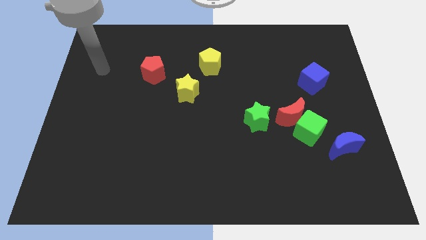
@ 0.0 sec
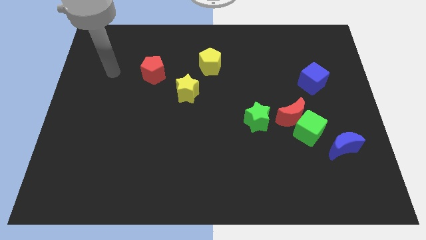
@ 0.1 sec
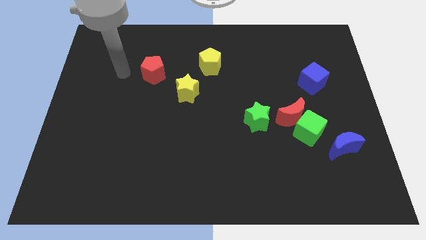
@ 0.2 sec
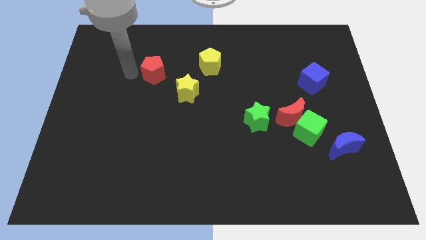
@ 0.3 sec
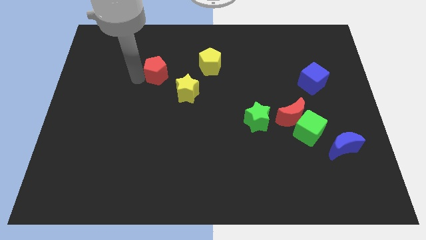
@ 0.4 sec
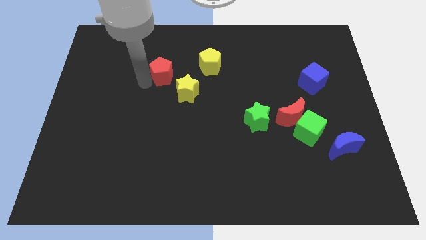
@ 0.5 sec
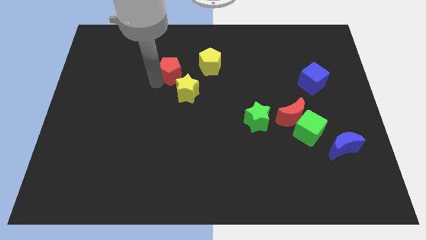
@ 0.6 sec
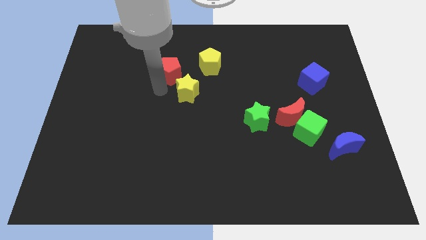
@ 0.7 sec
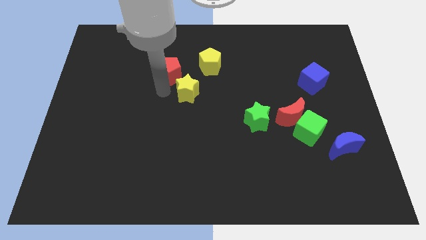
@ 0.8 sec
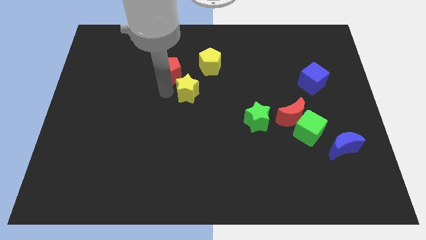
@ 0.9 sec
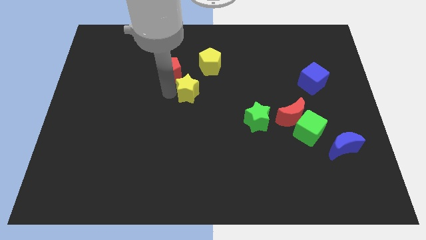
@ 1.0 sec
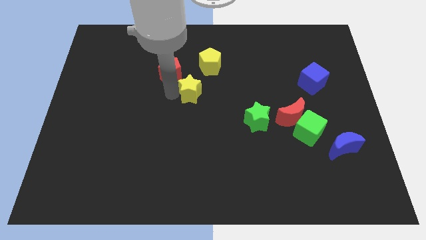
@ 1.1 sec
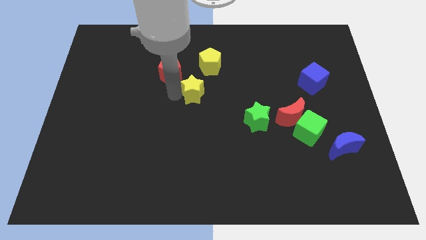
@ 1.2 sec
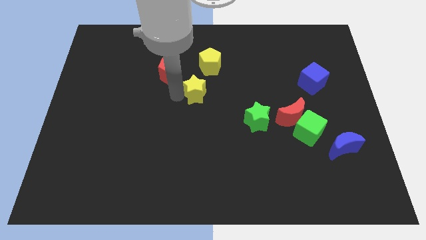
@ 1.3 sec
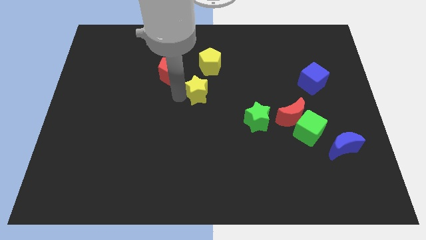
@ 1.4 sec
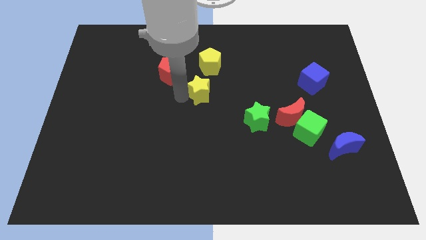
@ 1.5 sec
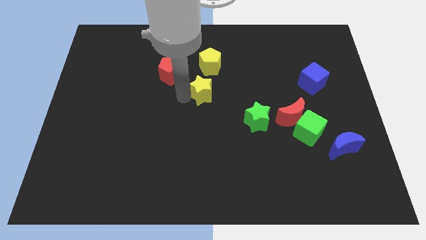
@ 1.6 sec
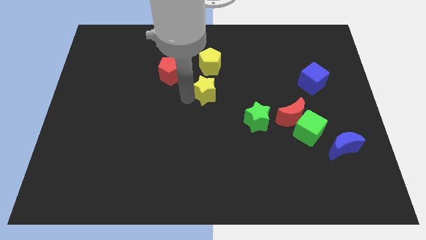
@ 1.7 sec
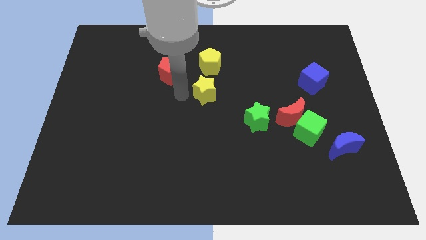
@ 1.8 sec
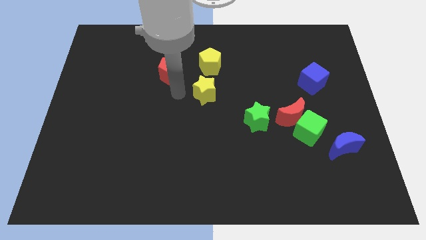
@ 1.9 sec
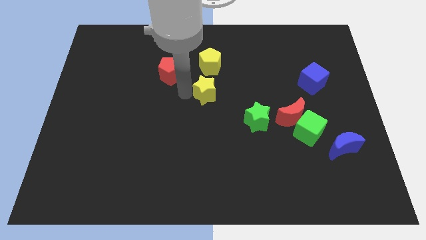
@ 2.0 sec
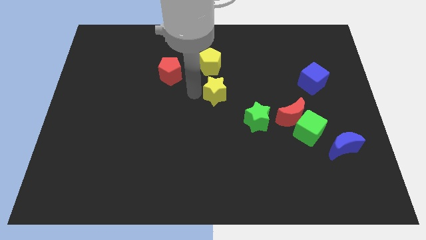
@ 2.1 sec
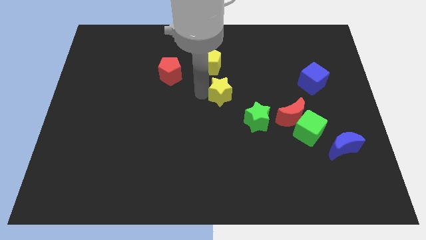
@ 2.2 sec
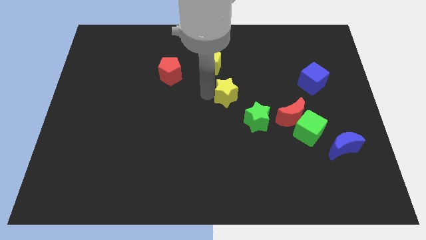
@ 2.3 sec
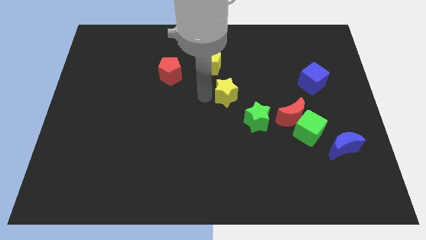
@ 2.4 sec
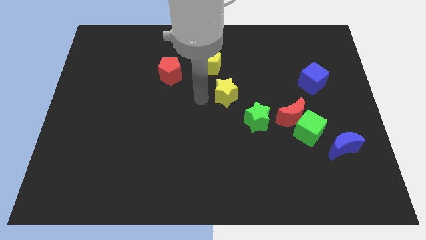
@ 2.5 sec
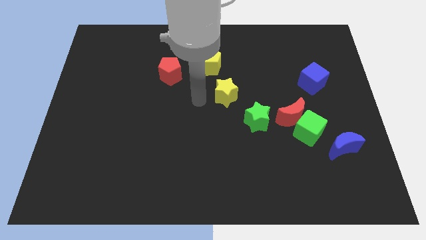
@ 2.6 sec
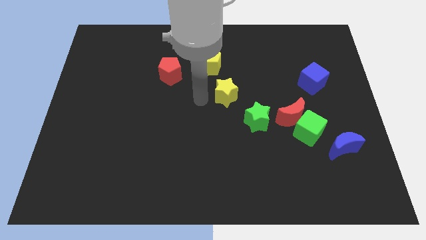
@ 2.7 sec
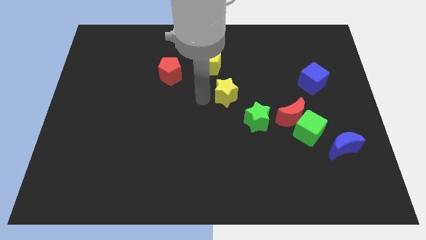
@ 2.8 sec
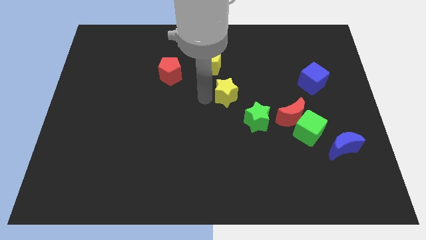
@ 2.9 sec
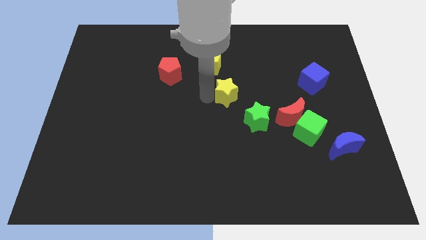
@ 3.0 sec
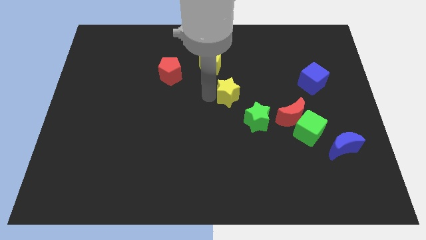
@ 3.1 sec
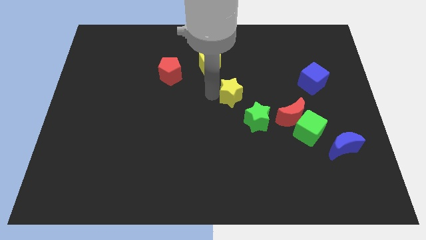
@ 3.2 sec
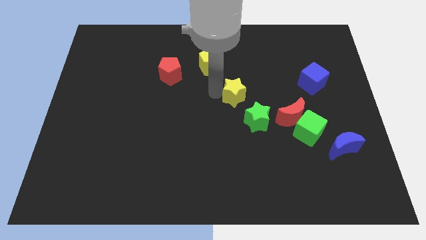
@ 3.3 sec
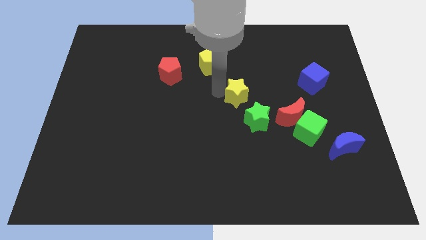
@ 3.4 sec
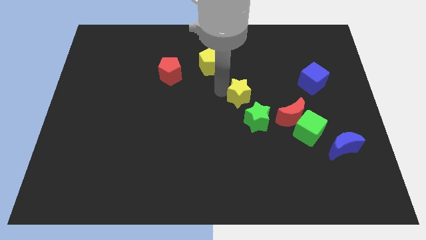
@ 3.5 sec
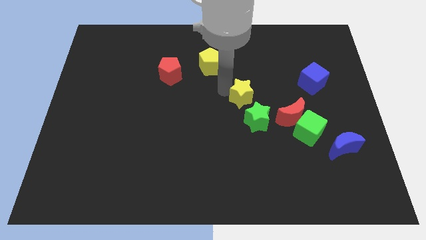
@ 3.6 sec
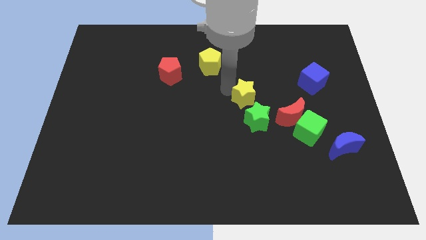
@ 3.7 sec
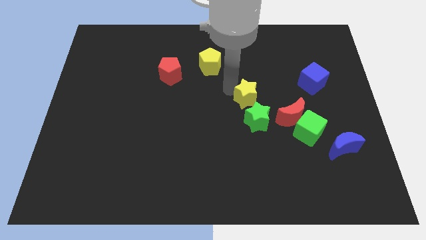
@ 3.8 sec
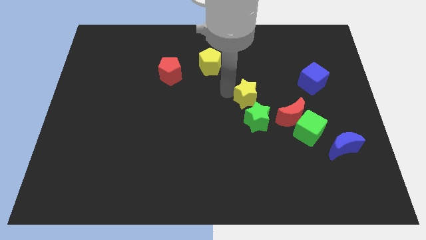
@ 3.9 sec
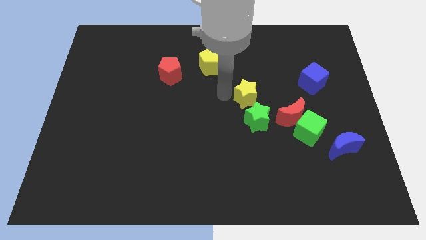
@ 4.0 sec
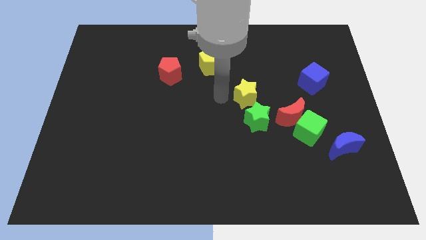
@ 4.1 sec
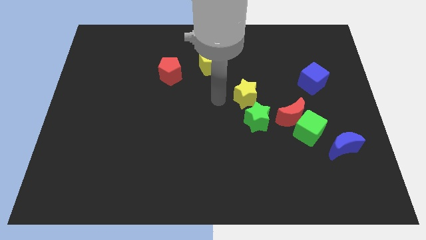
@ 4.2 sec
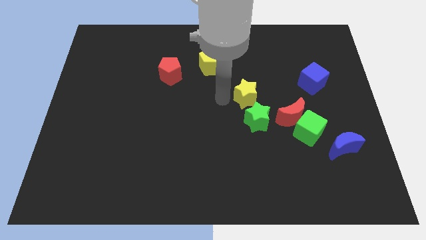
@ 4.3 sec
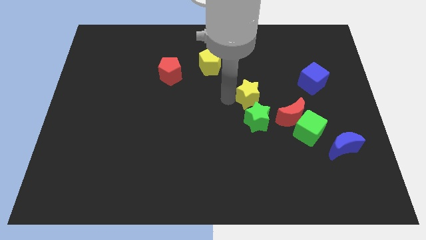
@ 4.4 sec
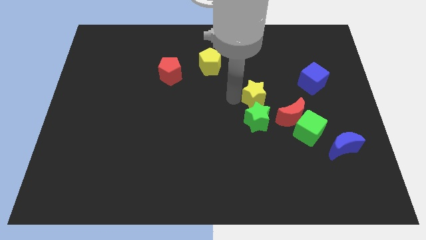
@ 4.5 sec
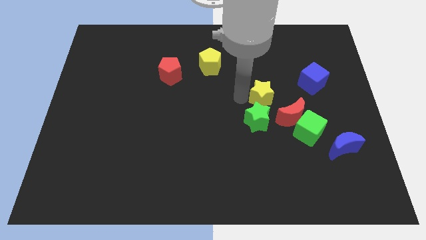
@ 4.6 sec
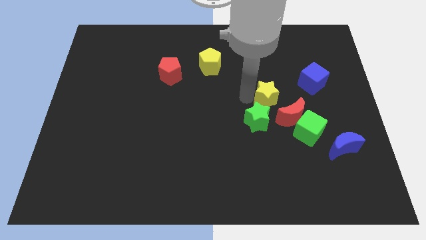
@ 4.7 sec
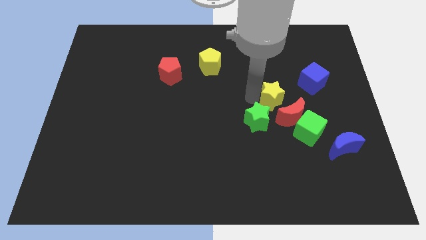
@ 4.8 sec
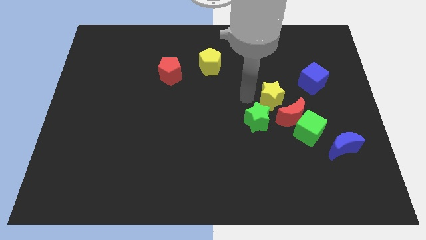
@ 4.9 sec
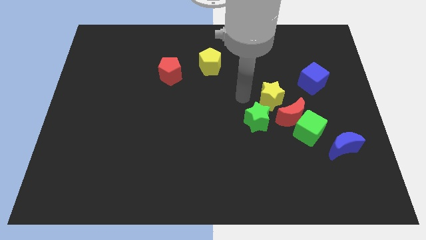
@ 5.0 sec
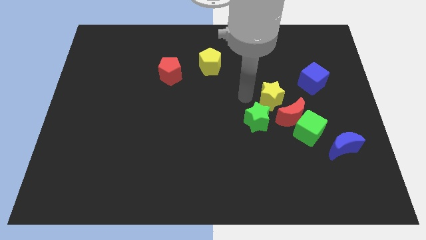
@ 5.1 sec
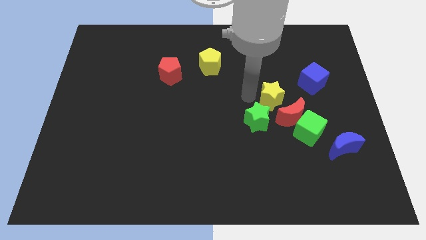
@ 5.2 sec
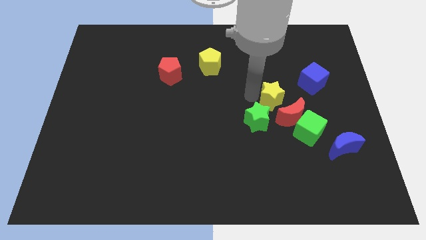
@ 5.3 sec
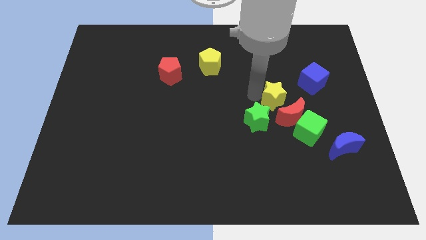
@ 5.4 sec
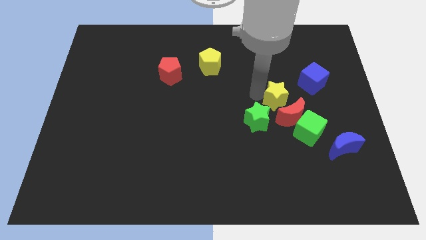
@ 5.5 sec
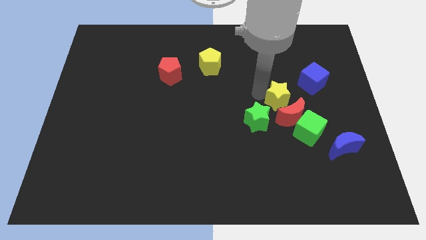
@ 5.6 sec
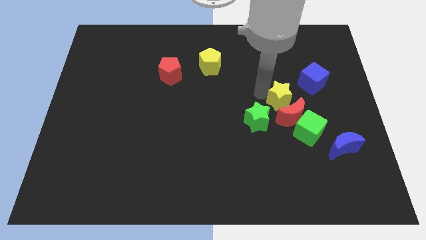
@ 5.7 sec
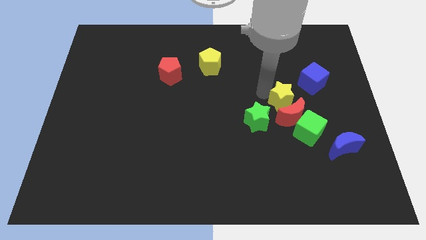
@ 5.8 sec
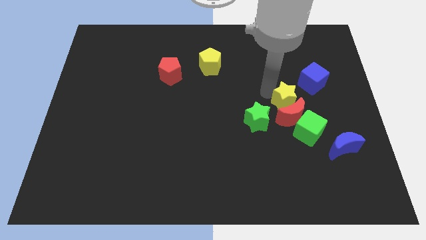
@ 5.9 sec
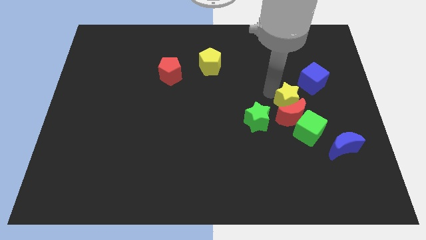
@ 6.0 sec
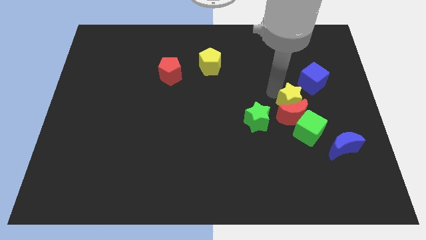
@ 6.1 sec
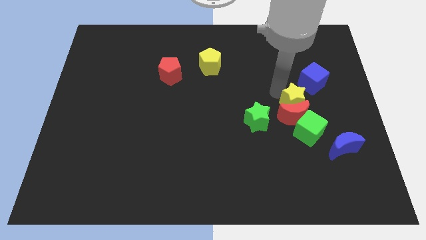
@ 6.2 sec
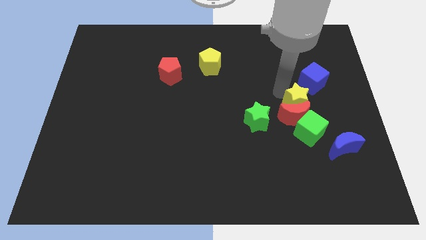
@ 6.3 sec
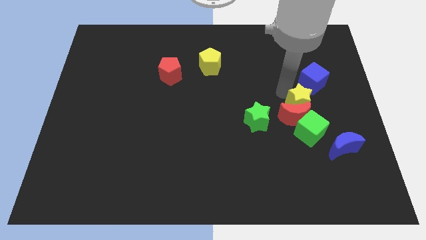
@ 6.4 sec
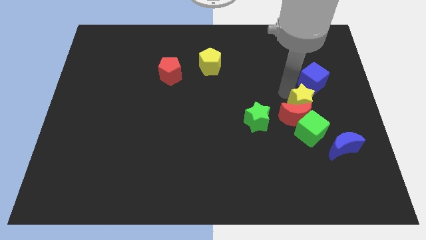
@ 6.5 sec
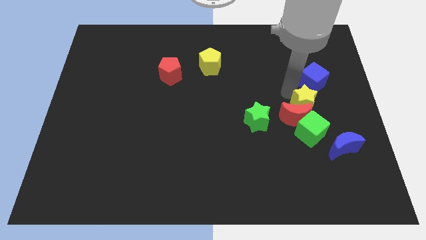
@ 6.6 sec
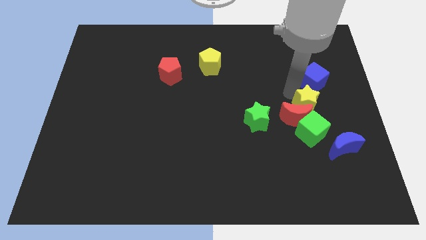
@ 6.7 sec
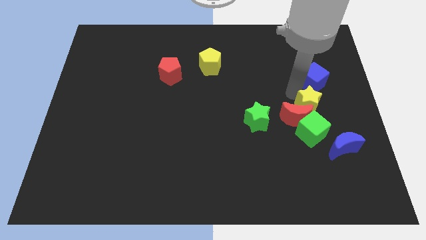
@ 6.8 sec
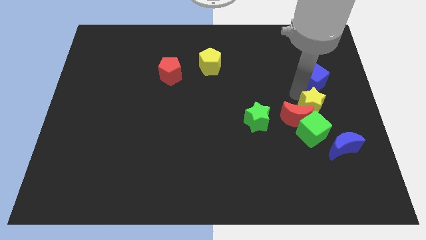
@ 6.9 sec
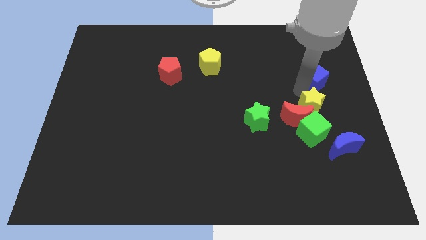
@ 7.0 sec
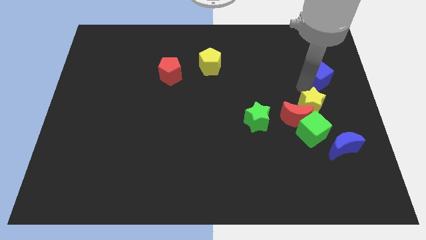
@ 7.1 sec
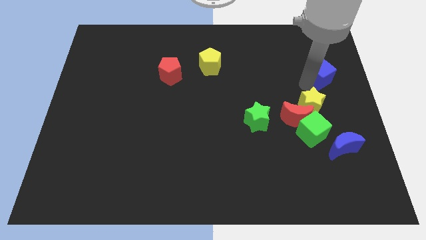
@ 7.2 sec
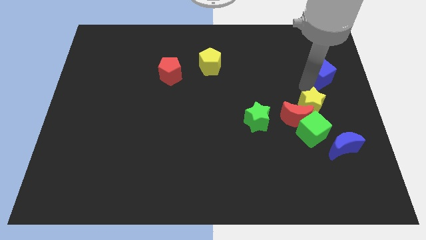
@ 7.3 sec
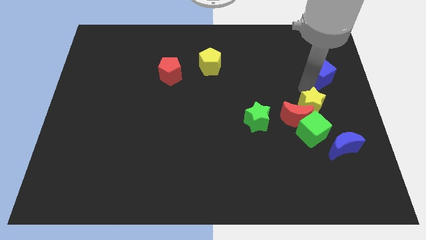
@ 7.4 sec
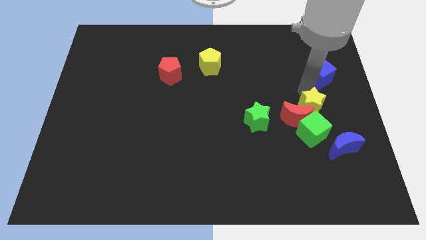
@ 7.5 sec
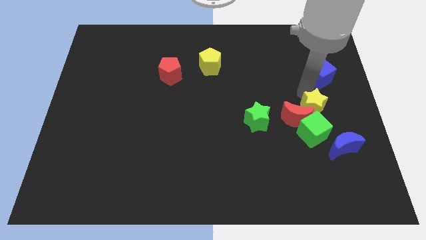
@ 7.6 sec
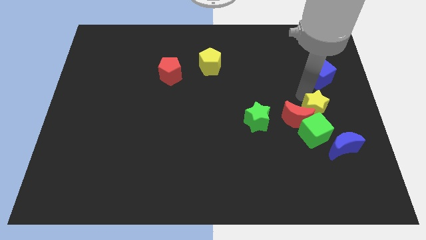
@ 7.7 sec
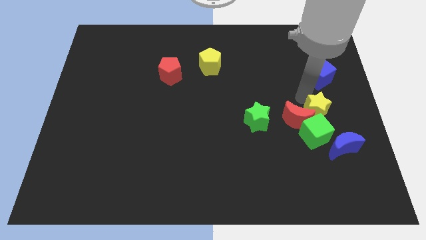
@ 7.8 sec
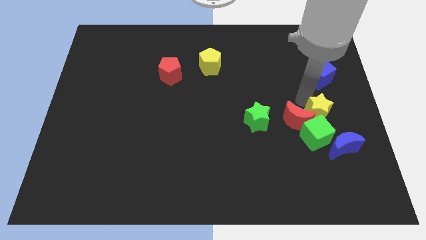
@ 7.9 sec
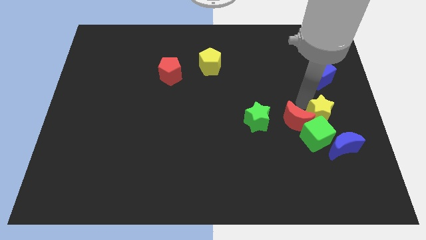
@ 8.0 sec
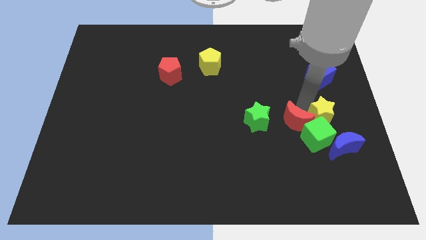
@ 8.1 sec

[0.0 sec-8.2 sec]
slide the yellow star towards the green cube
